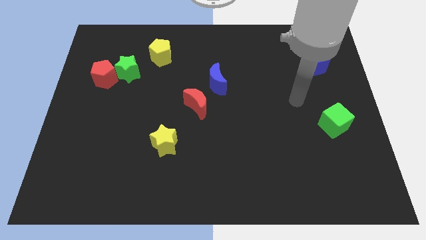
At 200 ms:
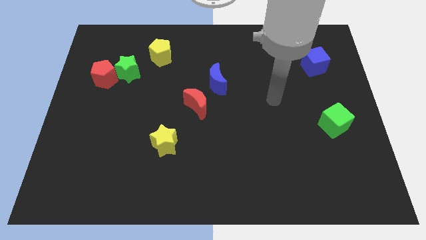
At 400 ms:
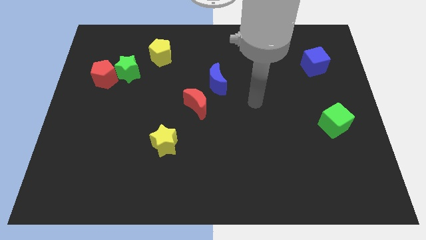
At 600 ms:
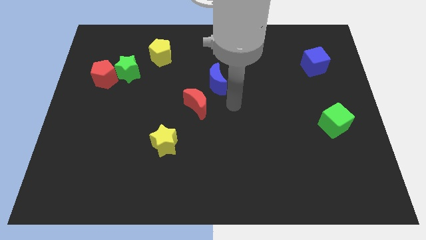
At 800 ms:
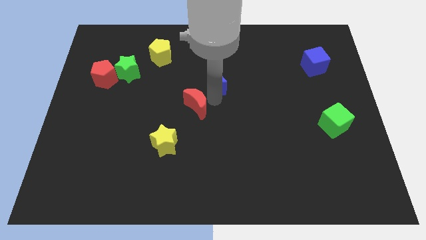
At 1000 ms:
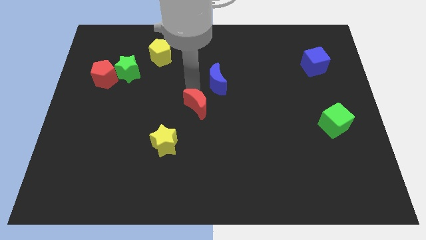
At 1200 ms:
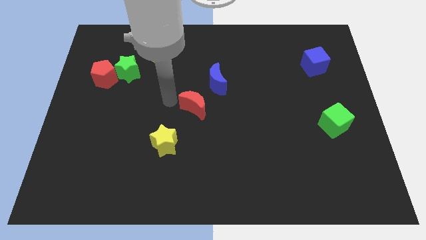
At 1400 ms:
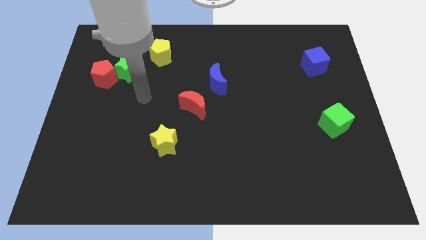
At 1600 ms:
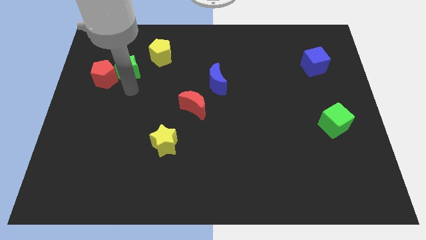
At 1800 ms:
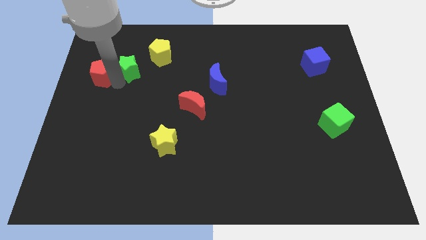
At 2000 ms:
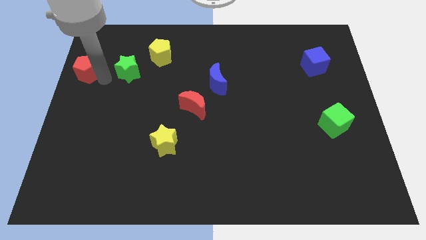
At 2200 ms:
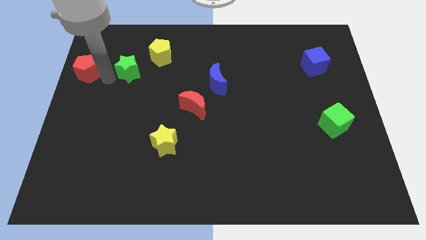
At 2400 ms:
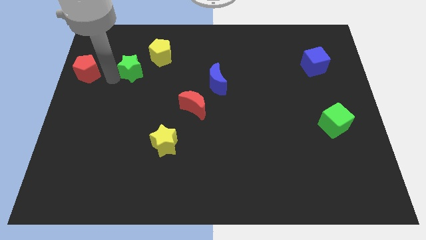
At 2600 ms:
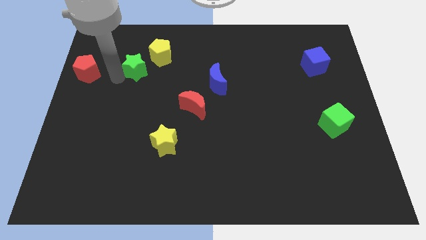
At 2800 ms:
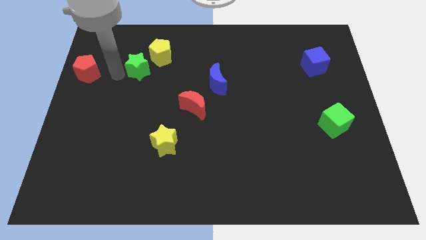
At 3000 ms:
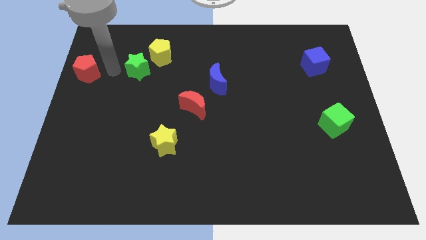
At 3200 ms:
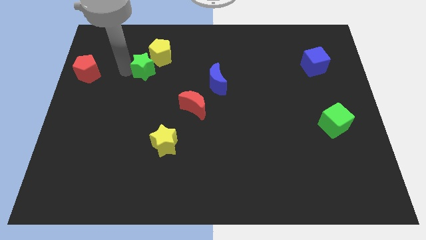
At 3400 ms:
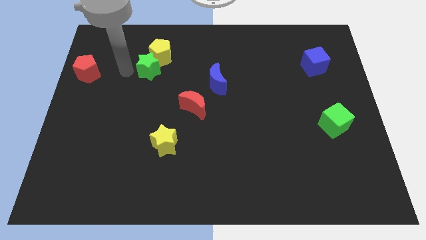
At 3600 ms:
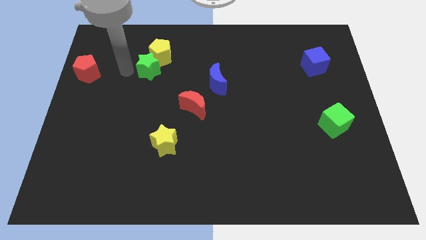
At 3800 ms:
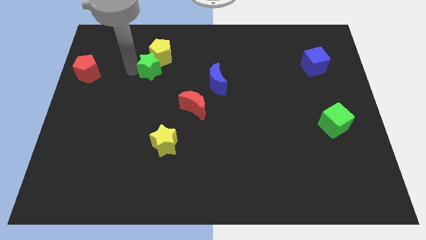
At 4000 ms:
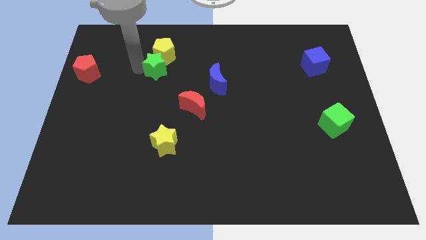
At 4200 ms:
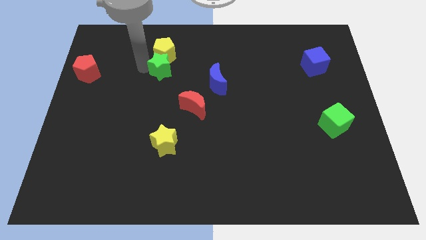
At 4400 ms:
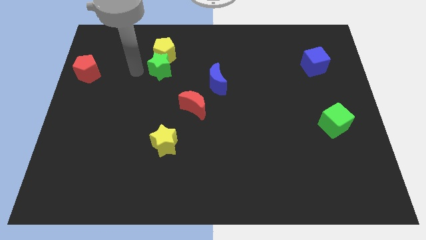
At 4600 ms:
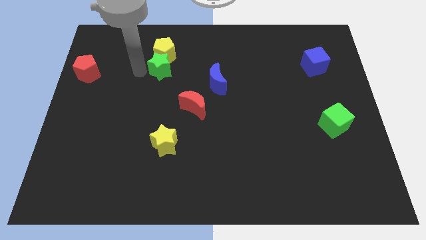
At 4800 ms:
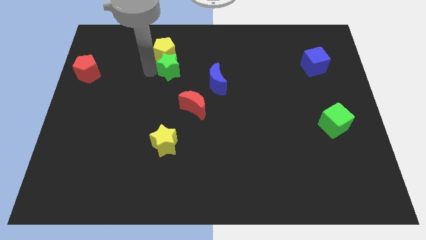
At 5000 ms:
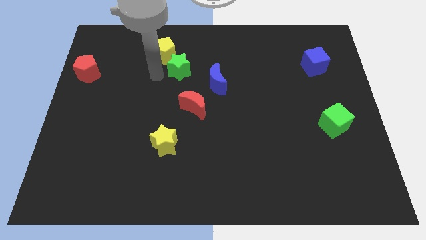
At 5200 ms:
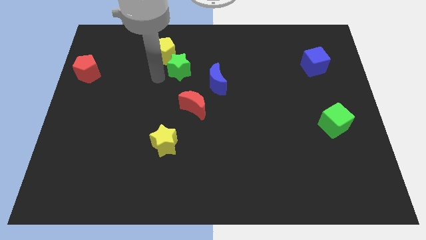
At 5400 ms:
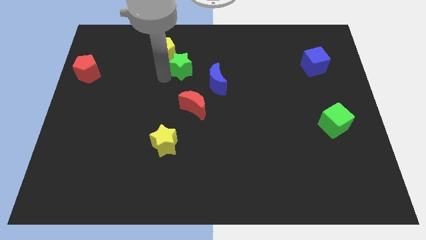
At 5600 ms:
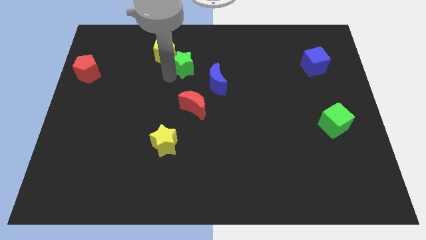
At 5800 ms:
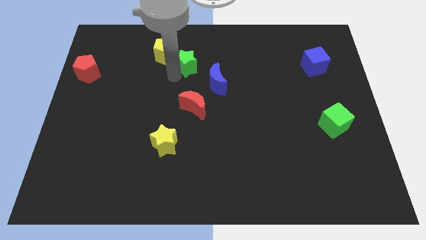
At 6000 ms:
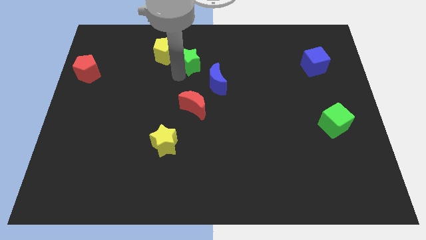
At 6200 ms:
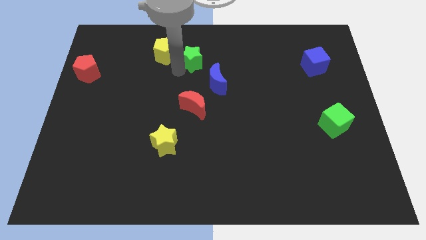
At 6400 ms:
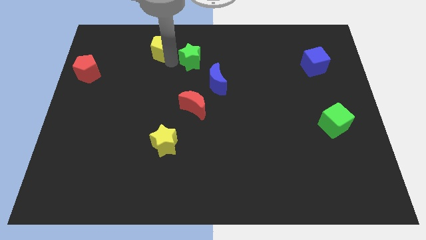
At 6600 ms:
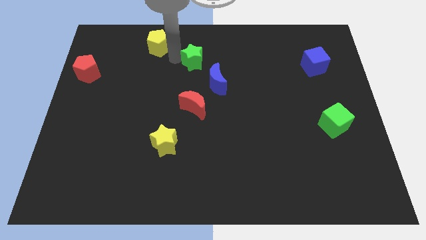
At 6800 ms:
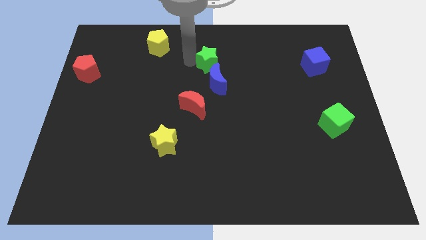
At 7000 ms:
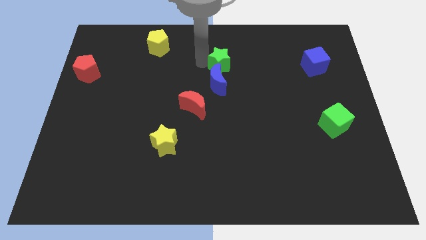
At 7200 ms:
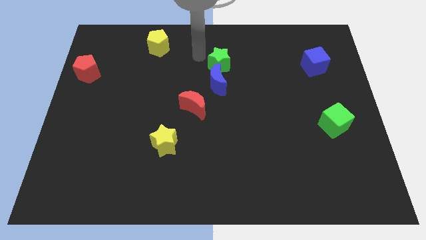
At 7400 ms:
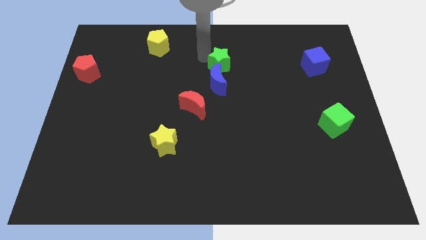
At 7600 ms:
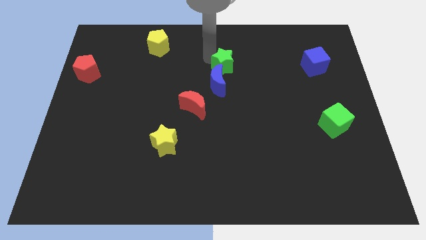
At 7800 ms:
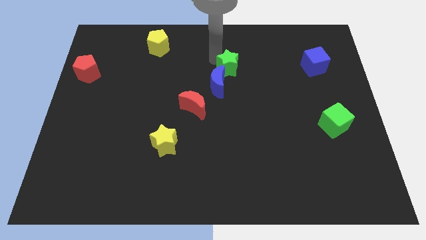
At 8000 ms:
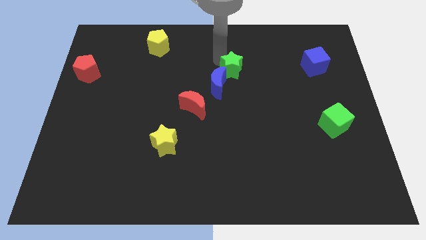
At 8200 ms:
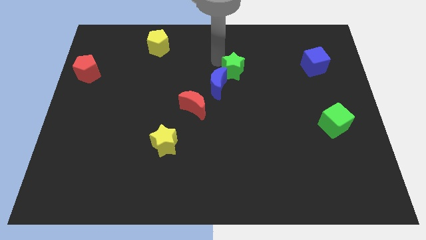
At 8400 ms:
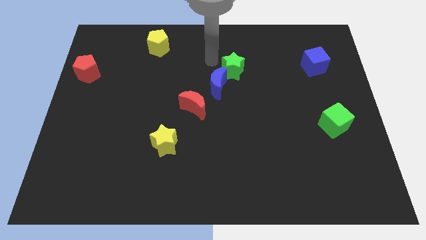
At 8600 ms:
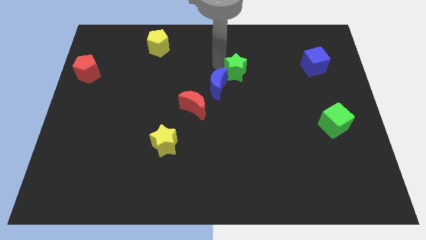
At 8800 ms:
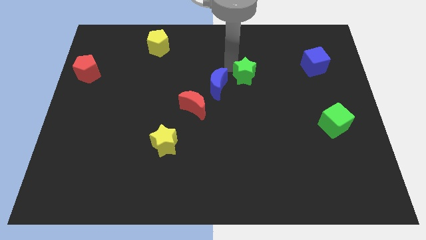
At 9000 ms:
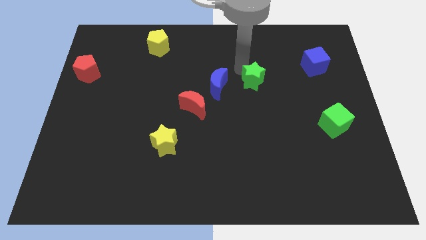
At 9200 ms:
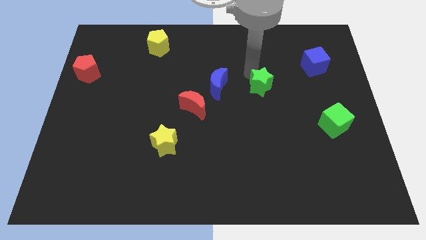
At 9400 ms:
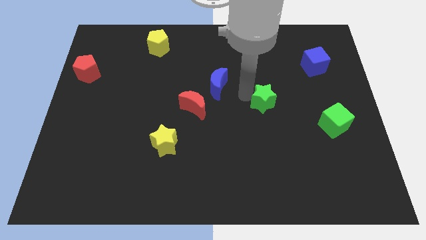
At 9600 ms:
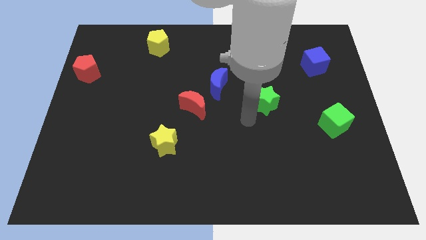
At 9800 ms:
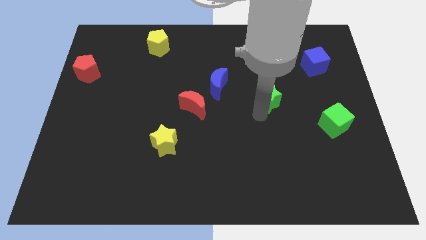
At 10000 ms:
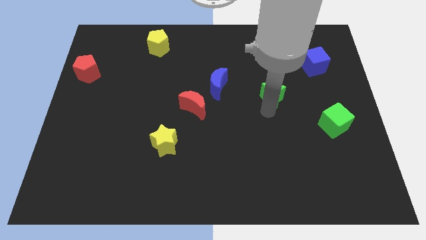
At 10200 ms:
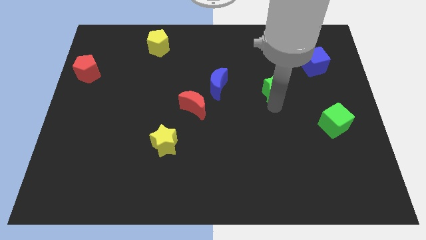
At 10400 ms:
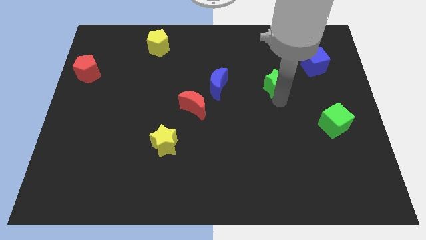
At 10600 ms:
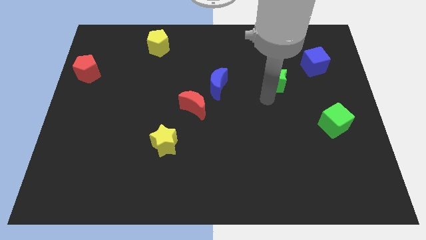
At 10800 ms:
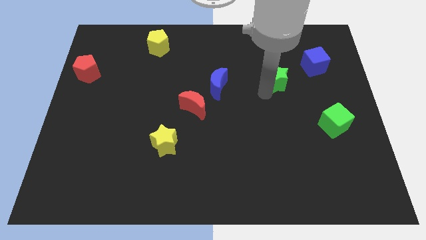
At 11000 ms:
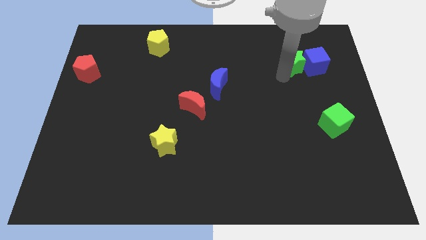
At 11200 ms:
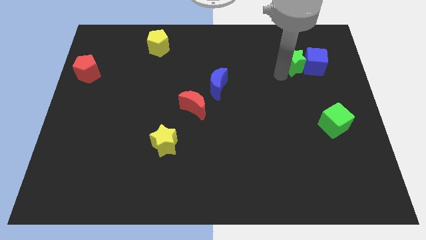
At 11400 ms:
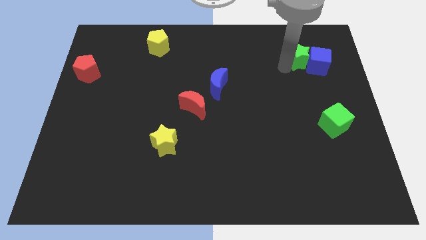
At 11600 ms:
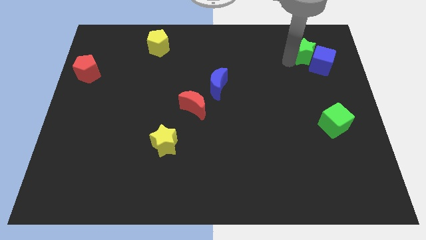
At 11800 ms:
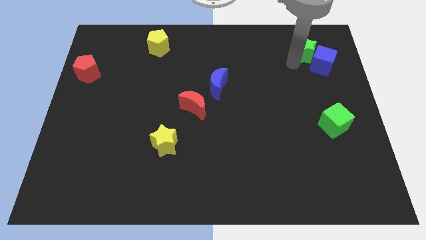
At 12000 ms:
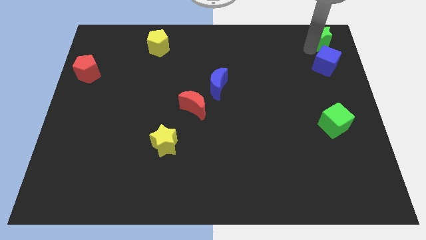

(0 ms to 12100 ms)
move the green star to the top right

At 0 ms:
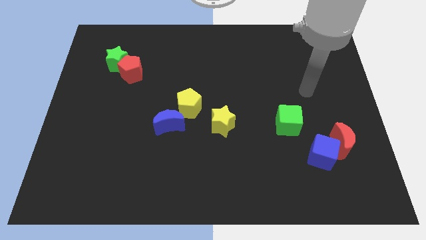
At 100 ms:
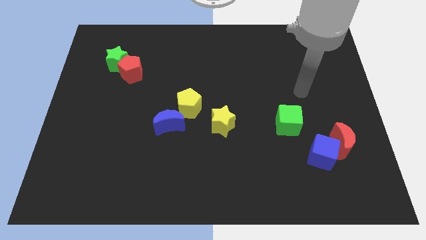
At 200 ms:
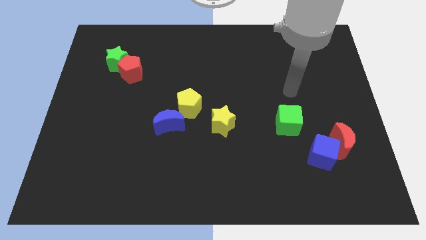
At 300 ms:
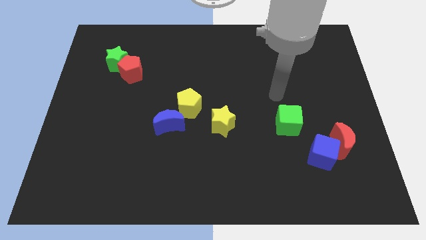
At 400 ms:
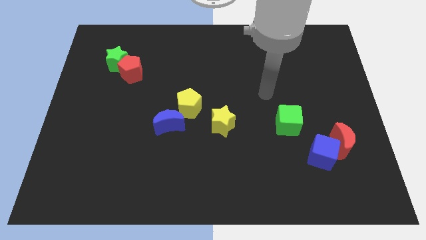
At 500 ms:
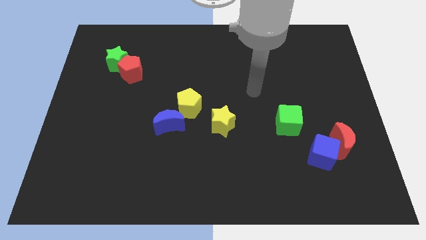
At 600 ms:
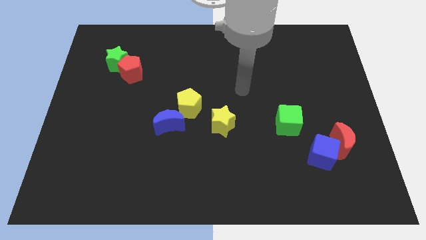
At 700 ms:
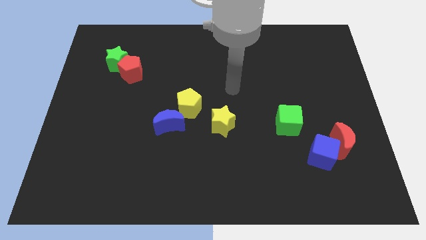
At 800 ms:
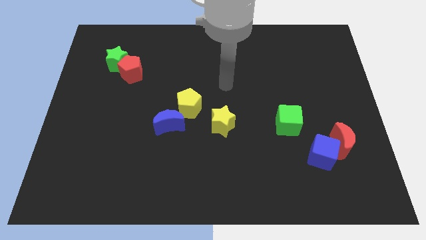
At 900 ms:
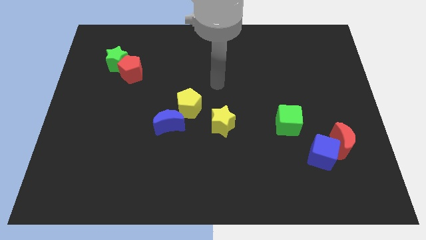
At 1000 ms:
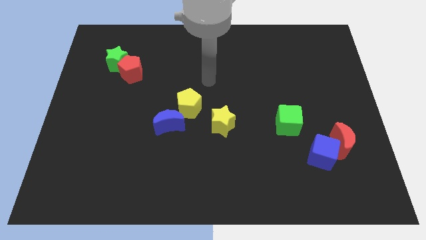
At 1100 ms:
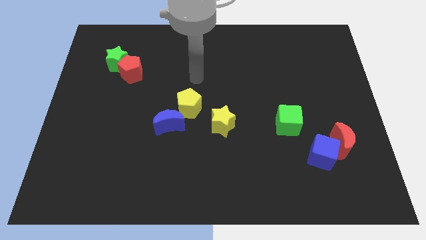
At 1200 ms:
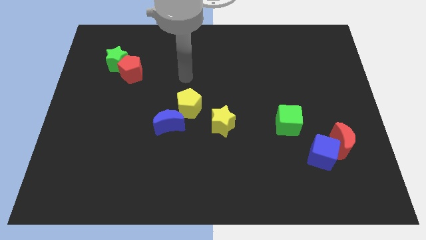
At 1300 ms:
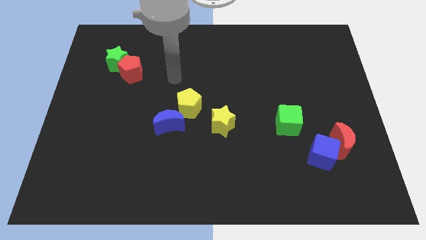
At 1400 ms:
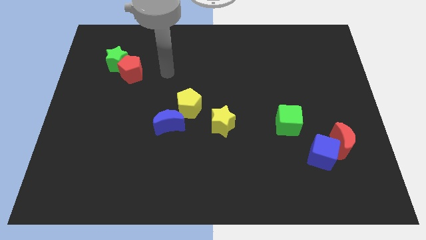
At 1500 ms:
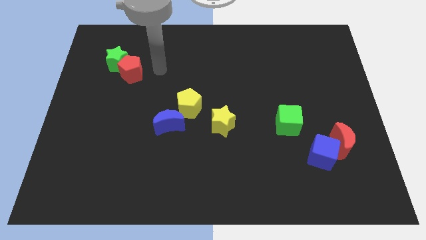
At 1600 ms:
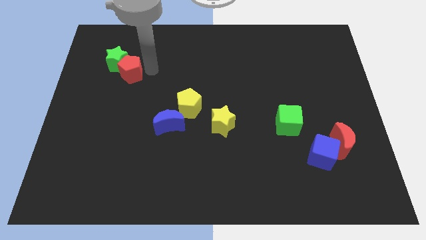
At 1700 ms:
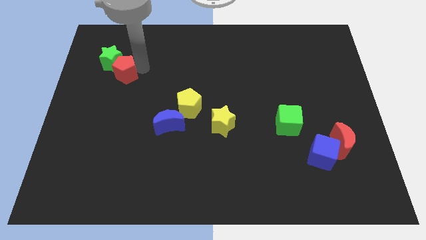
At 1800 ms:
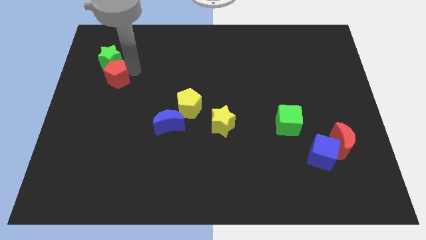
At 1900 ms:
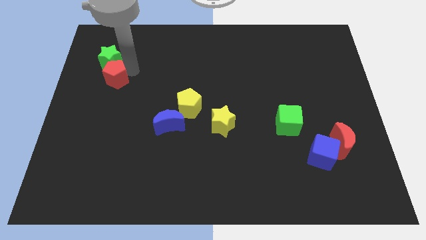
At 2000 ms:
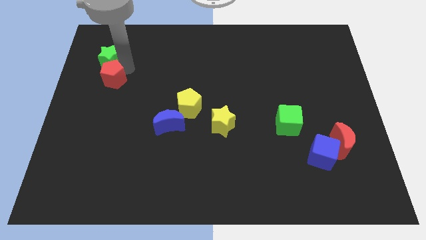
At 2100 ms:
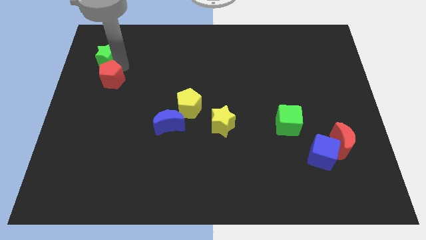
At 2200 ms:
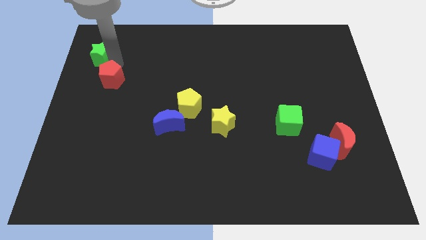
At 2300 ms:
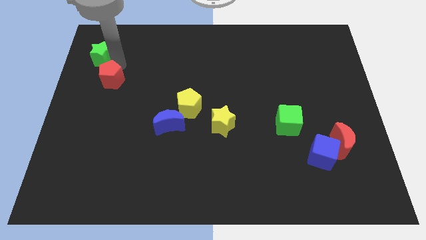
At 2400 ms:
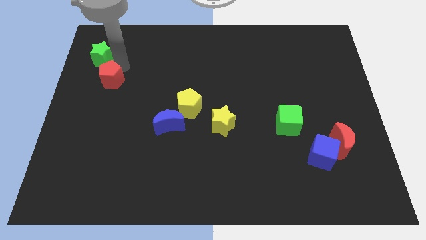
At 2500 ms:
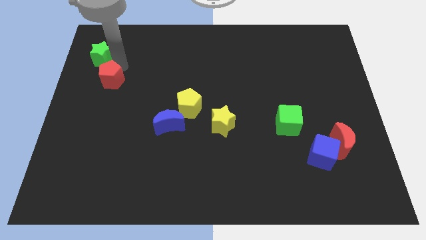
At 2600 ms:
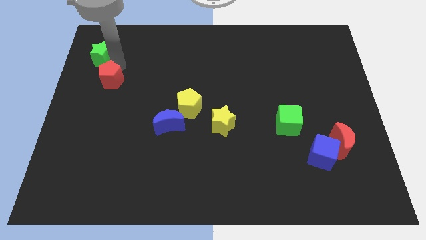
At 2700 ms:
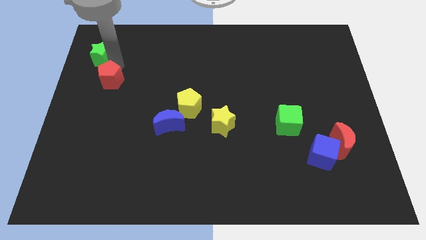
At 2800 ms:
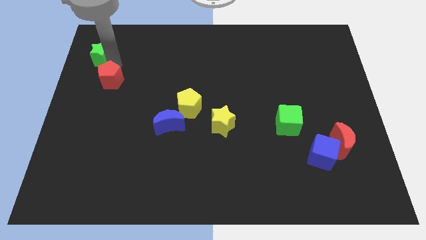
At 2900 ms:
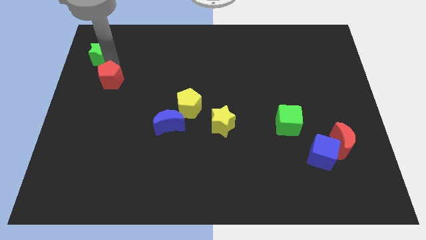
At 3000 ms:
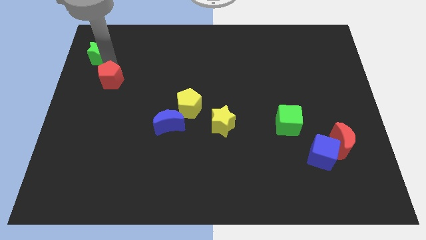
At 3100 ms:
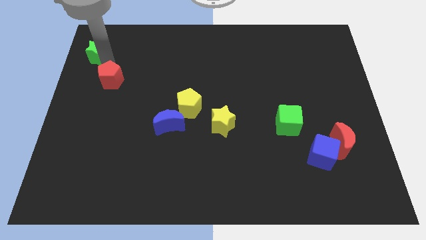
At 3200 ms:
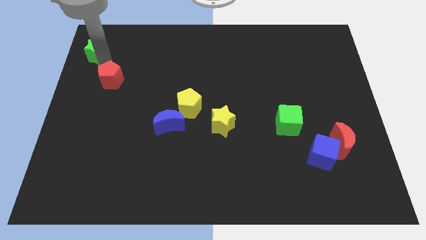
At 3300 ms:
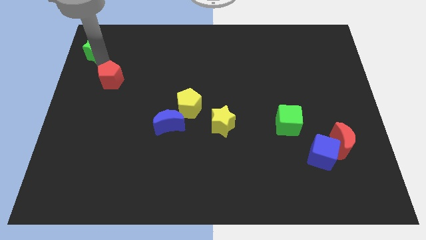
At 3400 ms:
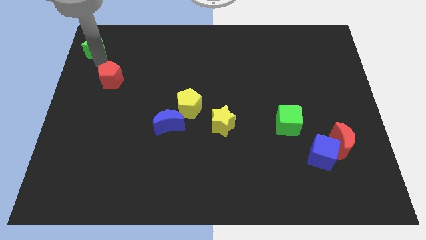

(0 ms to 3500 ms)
push the green star to the upper left corner
